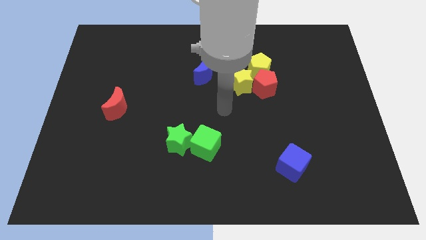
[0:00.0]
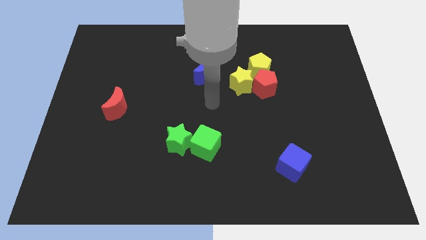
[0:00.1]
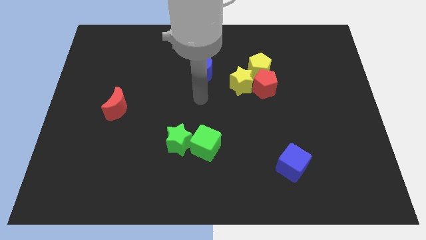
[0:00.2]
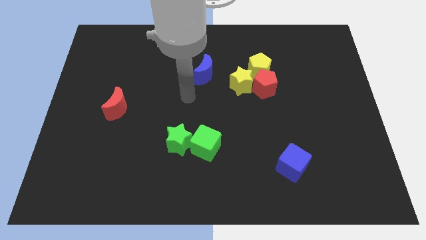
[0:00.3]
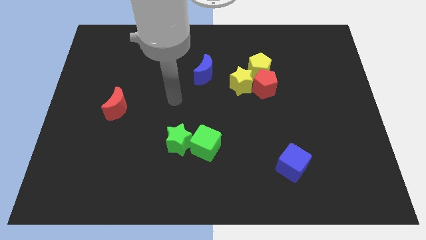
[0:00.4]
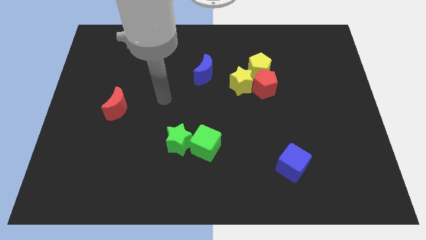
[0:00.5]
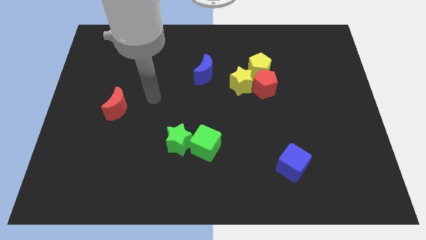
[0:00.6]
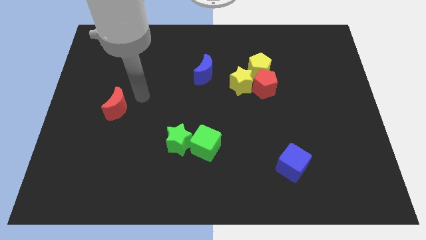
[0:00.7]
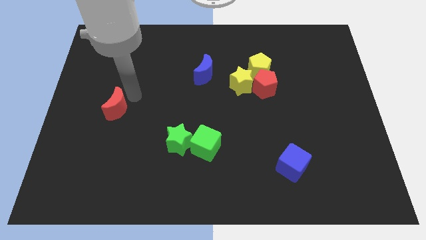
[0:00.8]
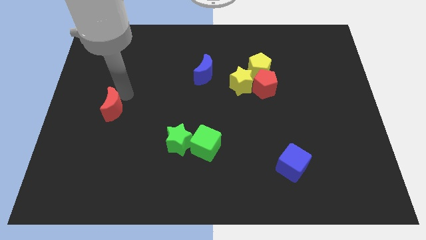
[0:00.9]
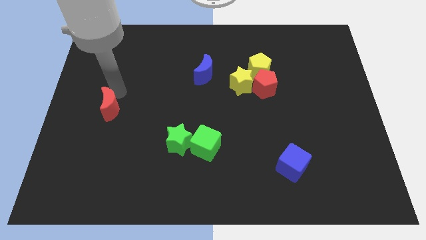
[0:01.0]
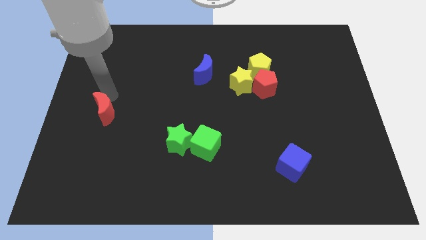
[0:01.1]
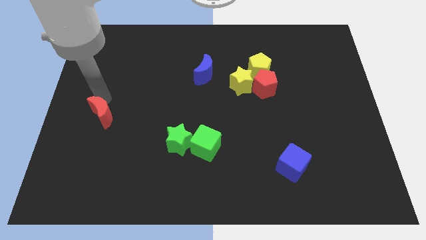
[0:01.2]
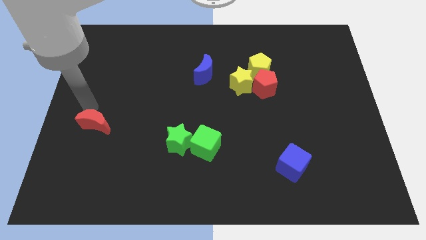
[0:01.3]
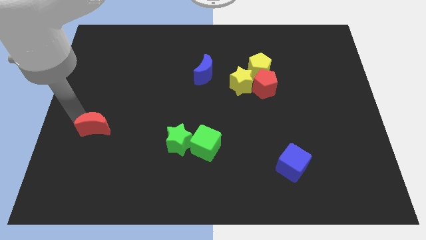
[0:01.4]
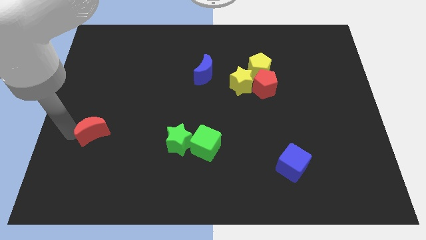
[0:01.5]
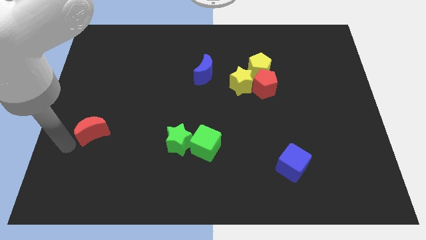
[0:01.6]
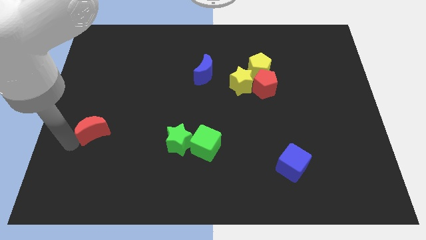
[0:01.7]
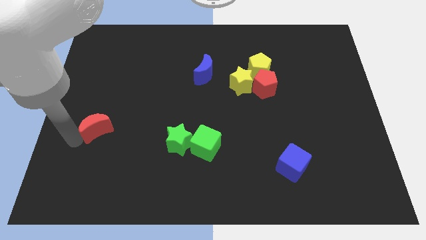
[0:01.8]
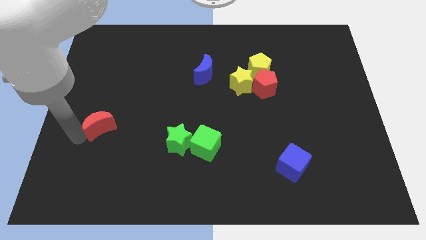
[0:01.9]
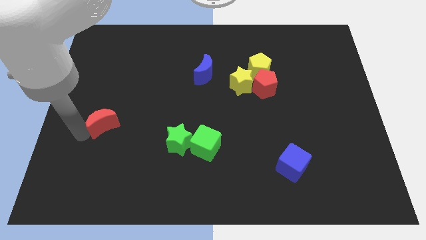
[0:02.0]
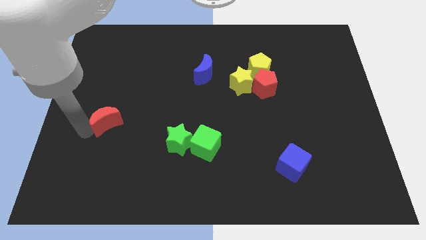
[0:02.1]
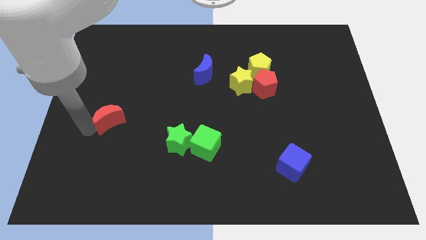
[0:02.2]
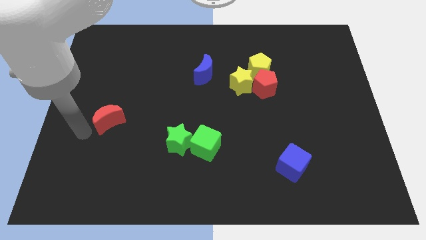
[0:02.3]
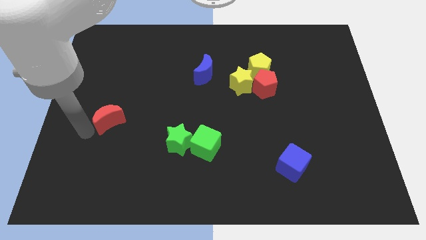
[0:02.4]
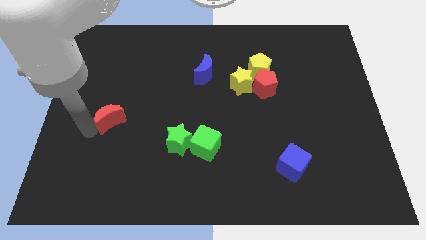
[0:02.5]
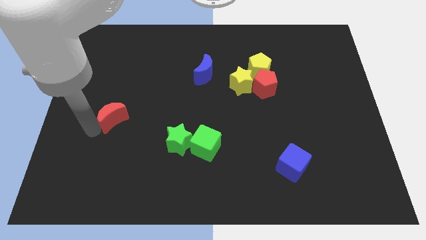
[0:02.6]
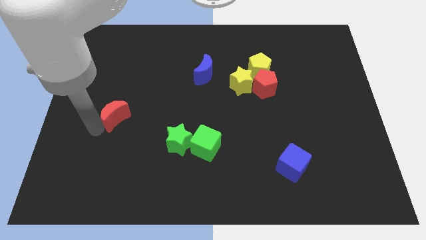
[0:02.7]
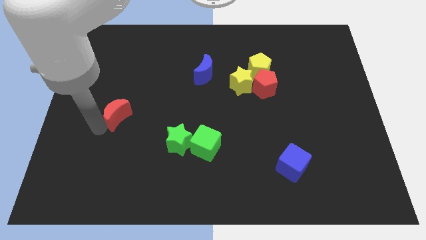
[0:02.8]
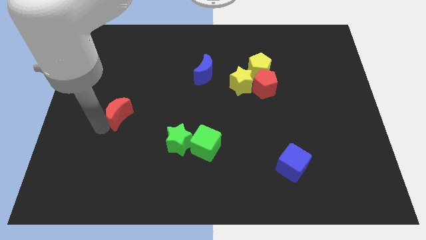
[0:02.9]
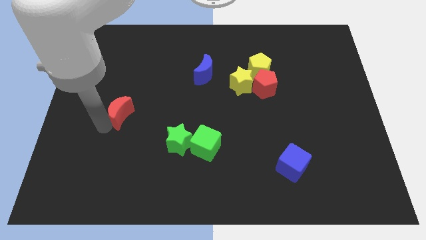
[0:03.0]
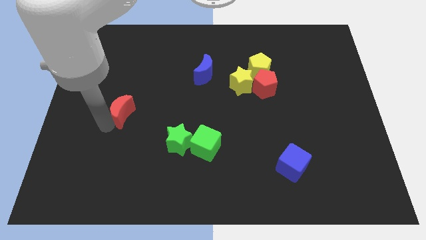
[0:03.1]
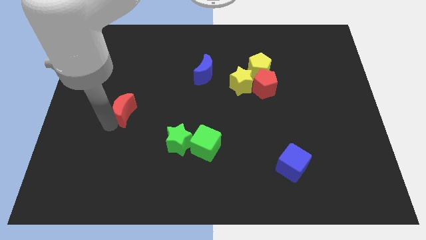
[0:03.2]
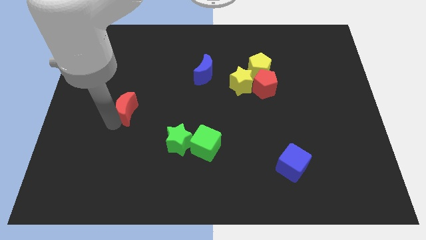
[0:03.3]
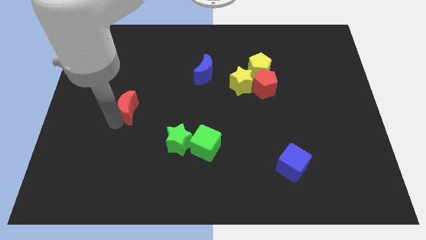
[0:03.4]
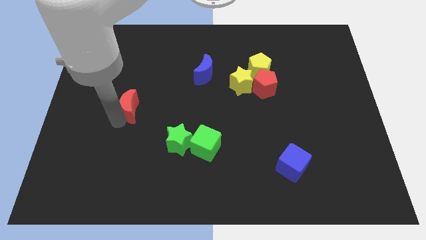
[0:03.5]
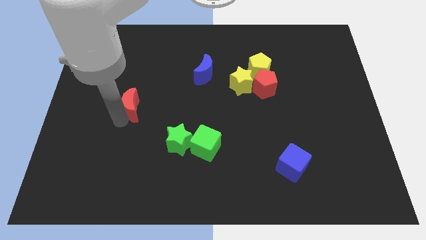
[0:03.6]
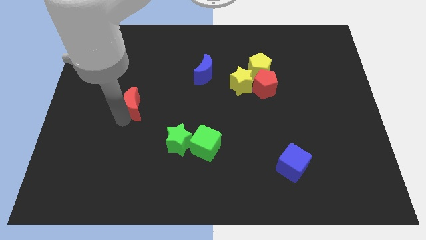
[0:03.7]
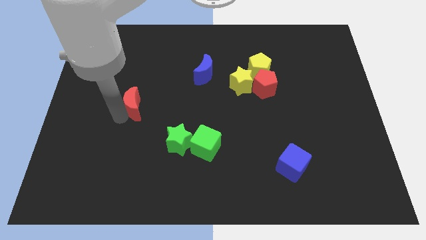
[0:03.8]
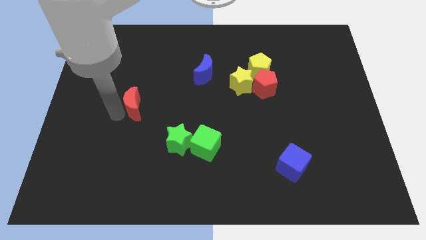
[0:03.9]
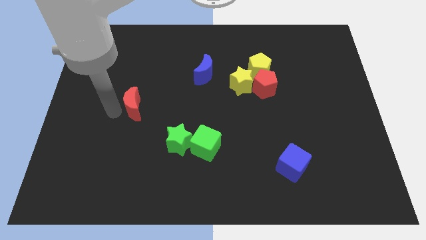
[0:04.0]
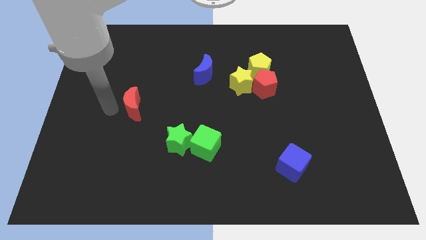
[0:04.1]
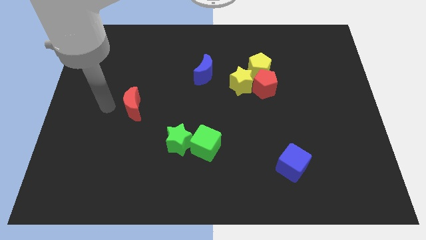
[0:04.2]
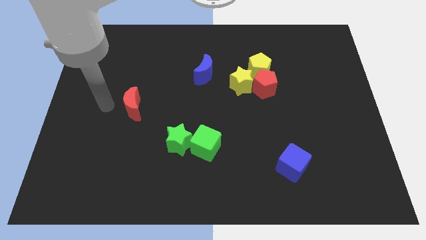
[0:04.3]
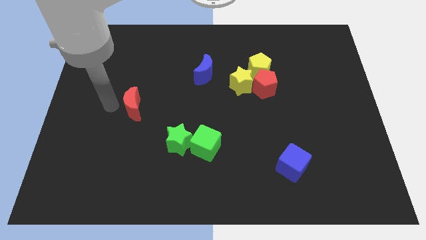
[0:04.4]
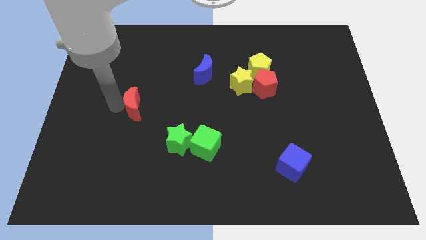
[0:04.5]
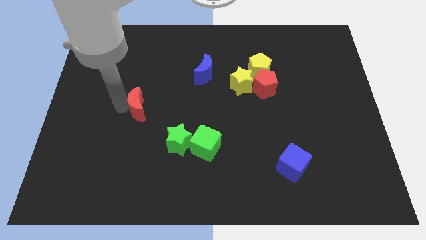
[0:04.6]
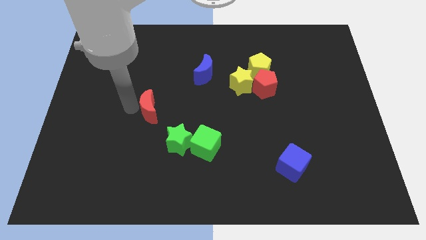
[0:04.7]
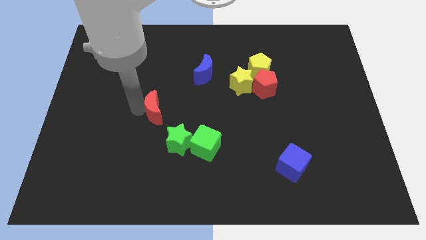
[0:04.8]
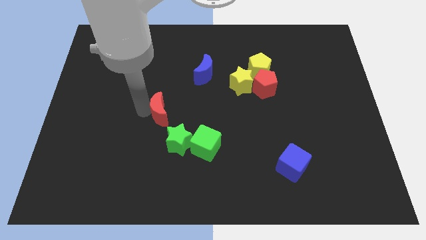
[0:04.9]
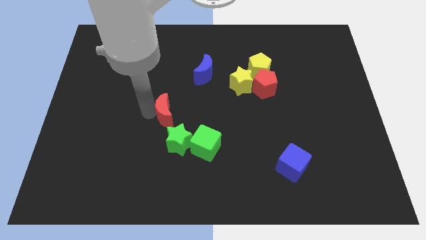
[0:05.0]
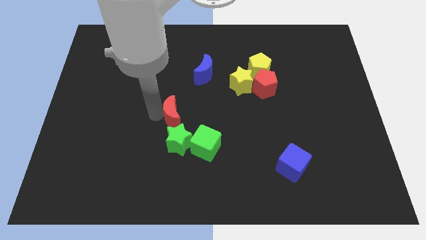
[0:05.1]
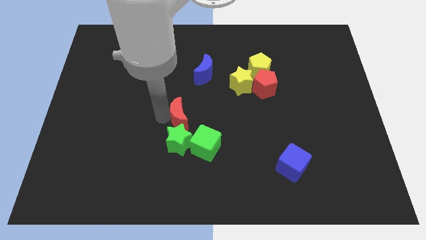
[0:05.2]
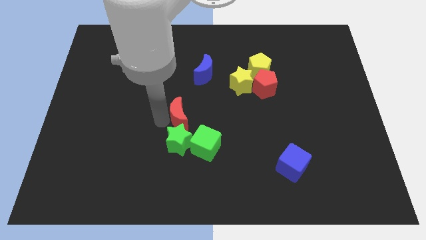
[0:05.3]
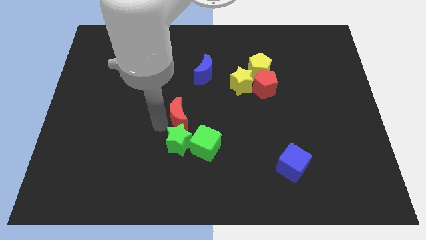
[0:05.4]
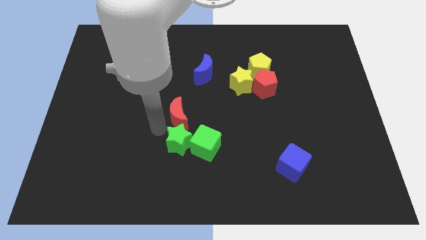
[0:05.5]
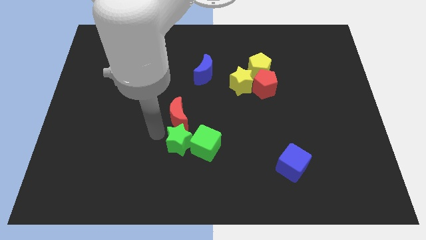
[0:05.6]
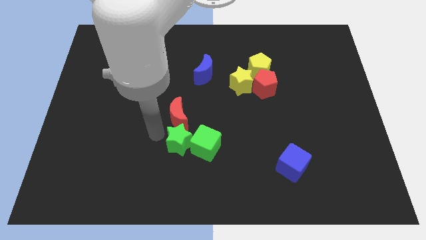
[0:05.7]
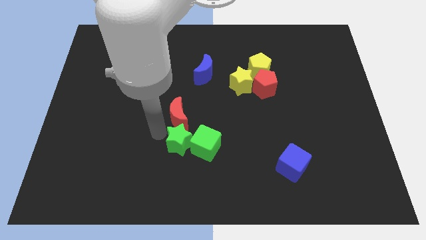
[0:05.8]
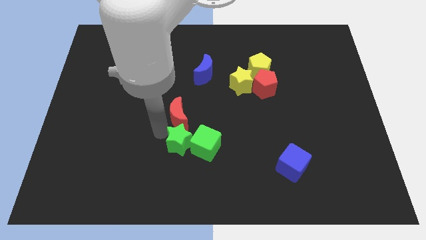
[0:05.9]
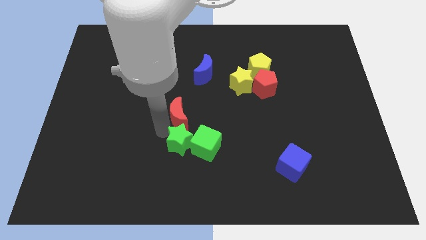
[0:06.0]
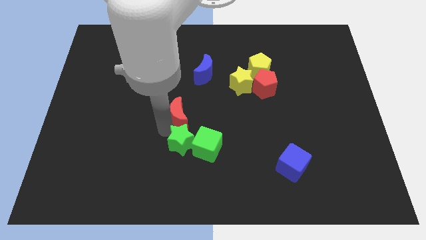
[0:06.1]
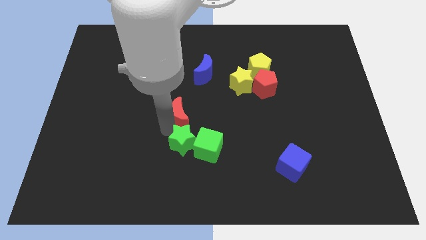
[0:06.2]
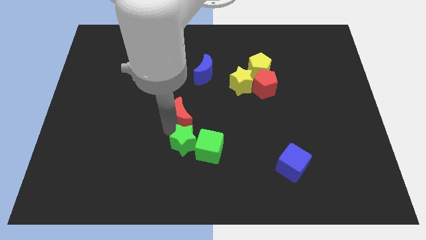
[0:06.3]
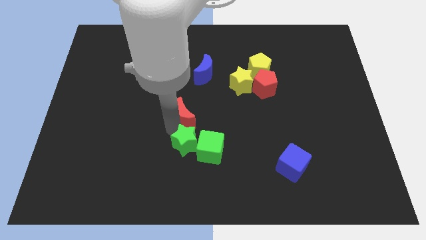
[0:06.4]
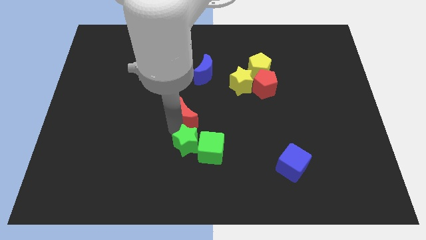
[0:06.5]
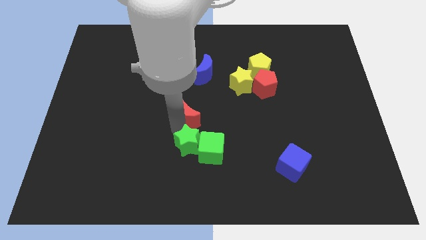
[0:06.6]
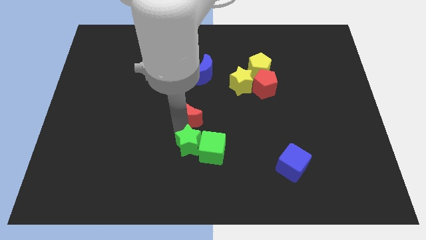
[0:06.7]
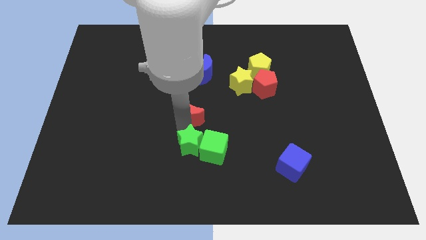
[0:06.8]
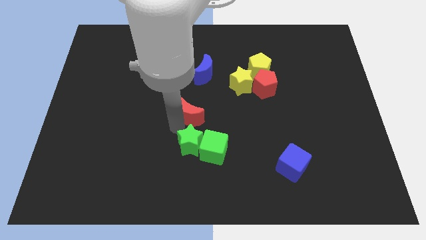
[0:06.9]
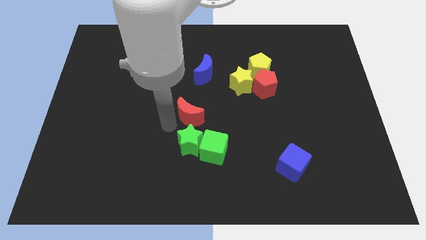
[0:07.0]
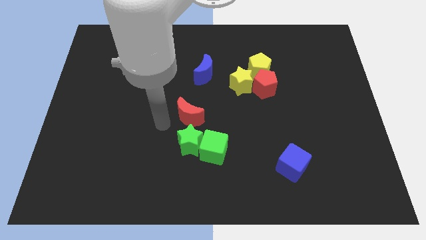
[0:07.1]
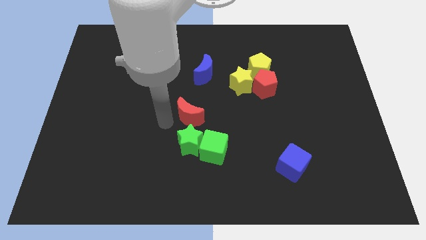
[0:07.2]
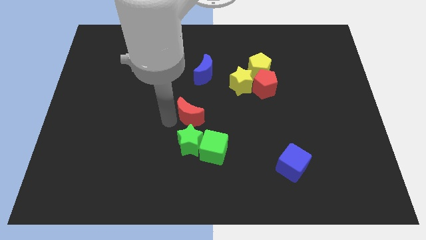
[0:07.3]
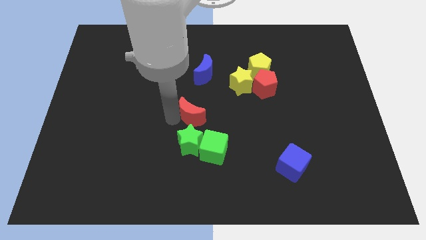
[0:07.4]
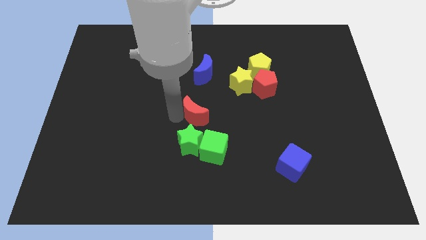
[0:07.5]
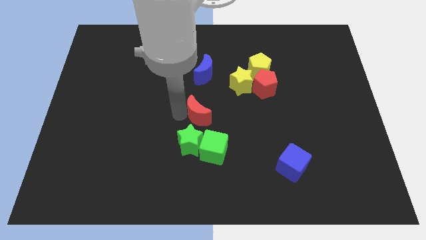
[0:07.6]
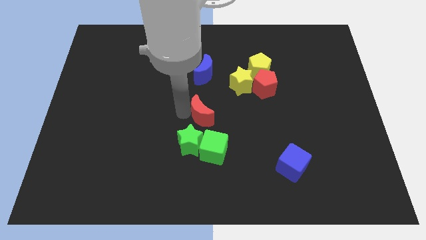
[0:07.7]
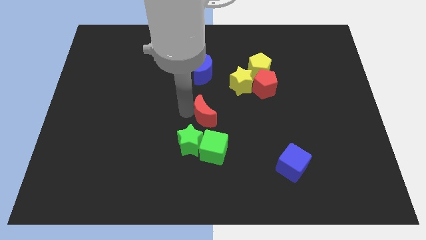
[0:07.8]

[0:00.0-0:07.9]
move the red moon right

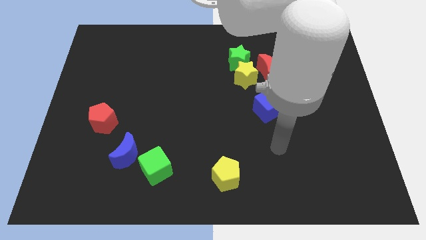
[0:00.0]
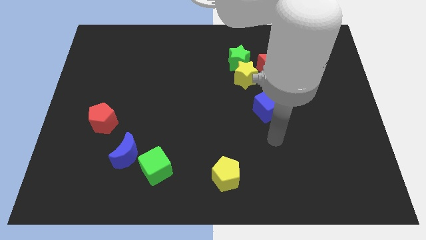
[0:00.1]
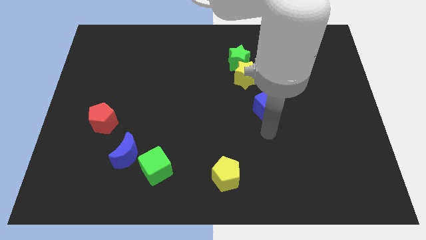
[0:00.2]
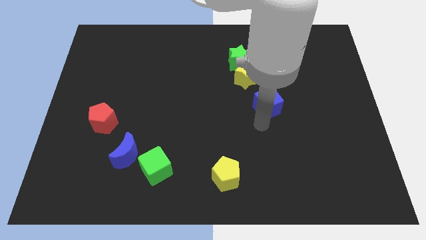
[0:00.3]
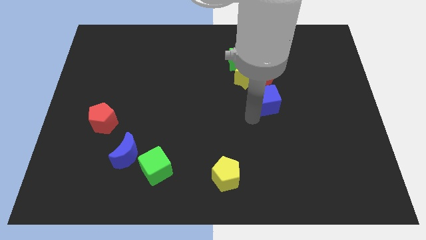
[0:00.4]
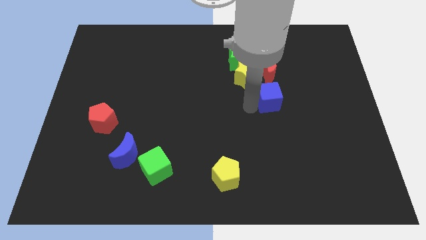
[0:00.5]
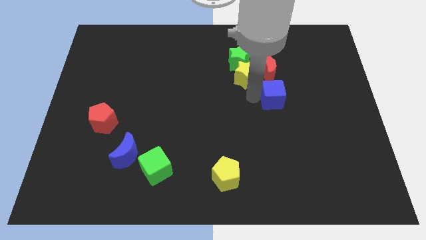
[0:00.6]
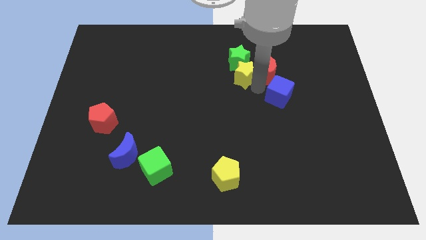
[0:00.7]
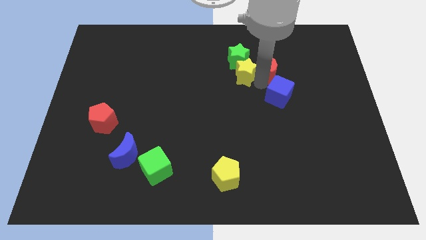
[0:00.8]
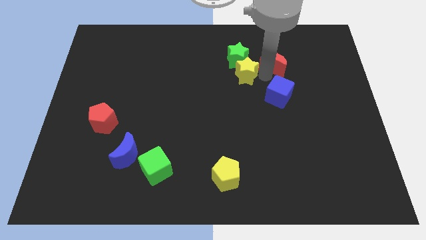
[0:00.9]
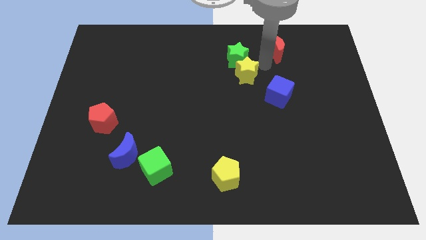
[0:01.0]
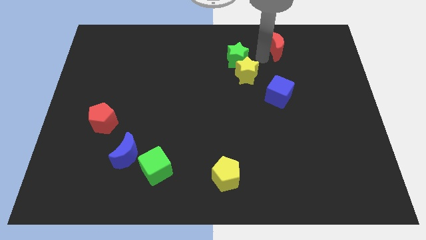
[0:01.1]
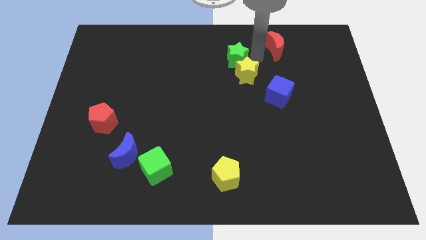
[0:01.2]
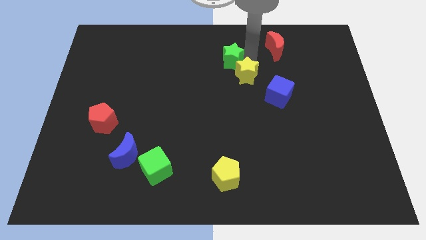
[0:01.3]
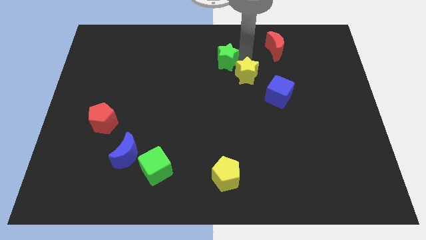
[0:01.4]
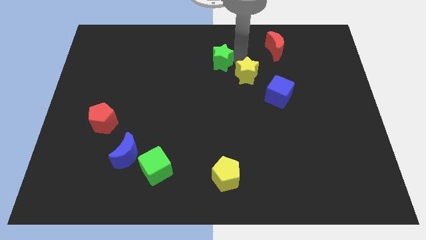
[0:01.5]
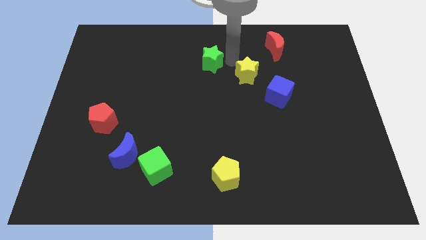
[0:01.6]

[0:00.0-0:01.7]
slightly slide the green star left
